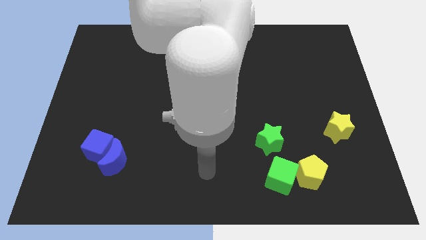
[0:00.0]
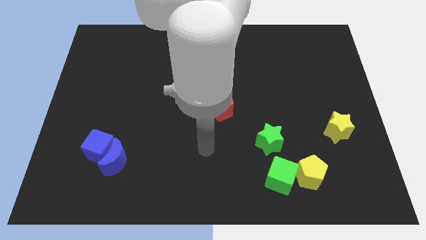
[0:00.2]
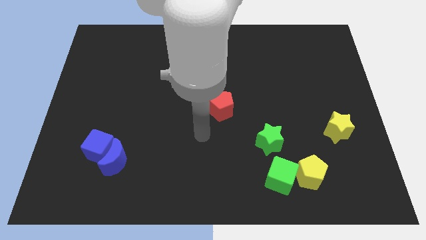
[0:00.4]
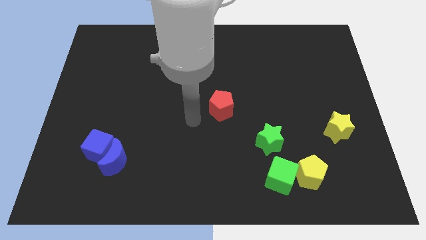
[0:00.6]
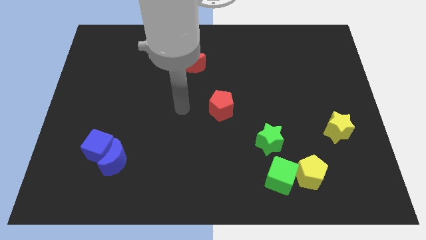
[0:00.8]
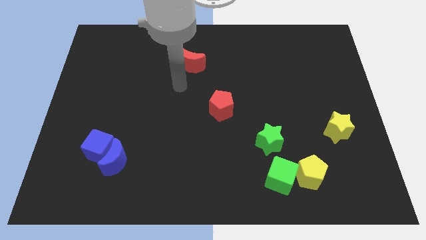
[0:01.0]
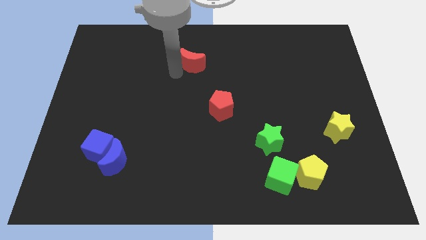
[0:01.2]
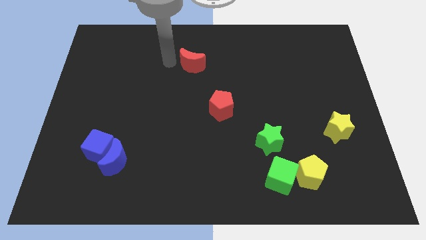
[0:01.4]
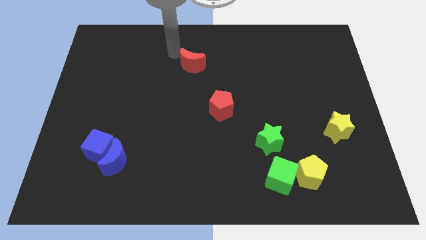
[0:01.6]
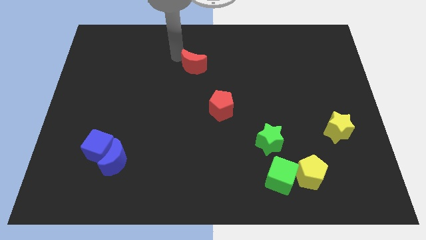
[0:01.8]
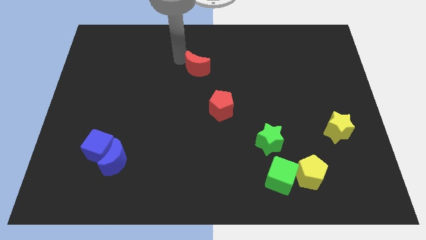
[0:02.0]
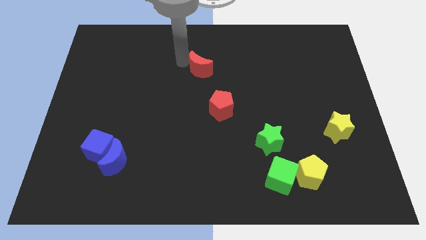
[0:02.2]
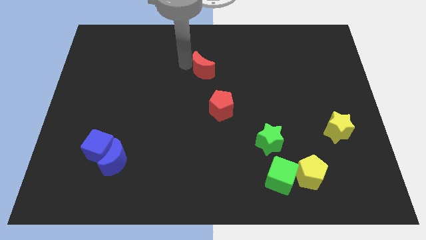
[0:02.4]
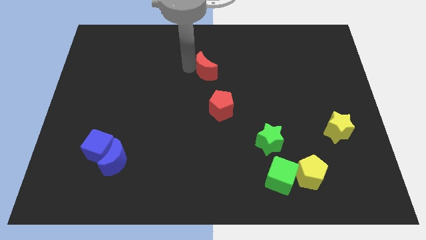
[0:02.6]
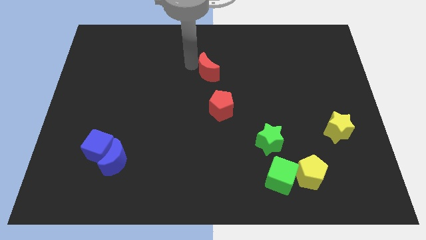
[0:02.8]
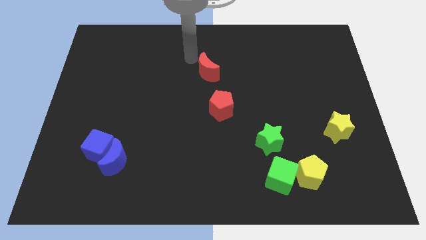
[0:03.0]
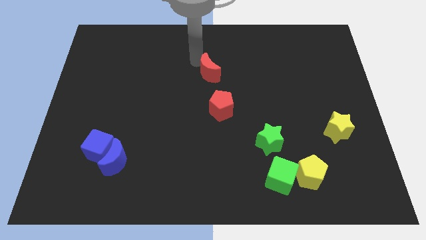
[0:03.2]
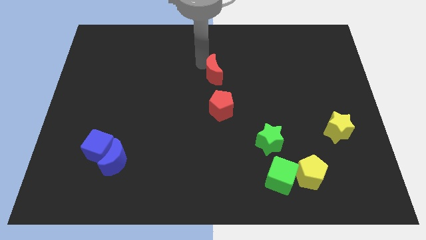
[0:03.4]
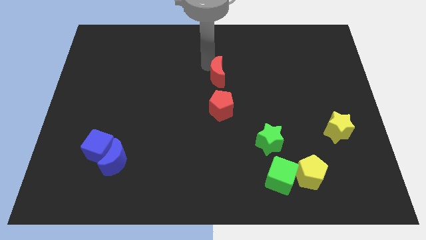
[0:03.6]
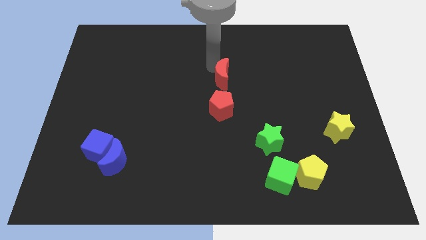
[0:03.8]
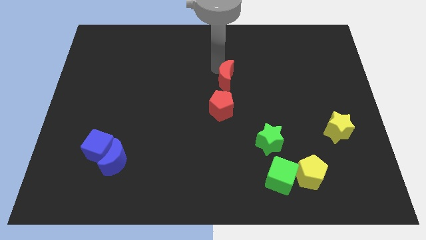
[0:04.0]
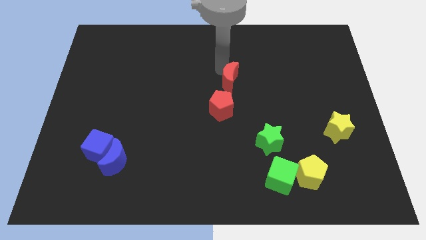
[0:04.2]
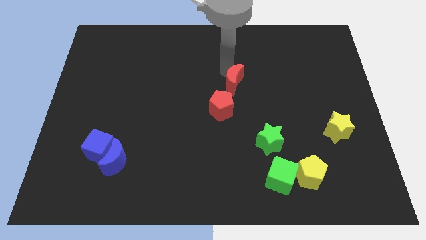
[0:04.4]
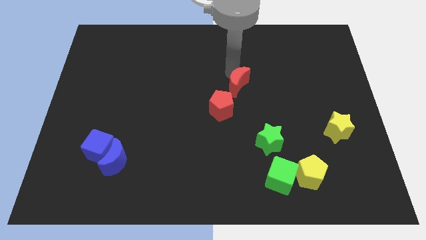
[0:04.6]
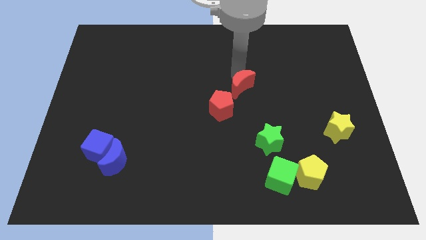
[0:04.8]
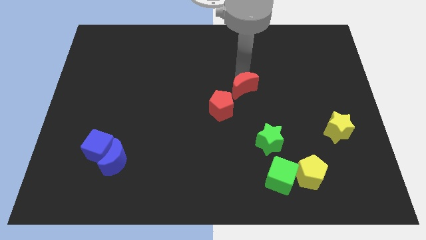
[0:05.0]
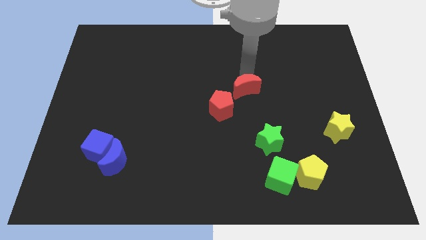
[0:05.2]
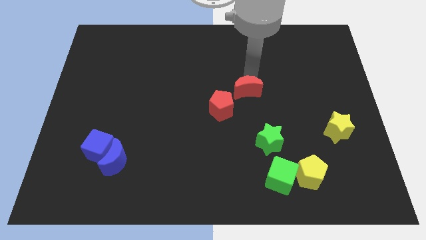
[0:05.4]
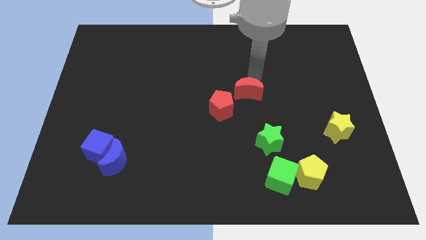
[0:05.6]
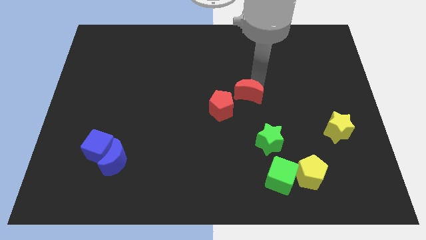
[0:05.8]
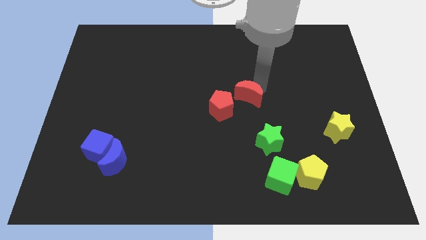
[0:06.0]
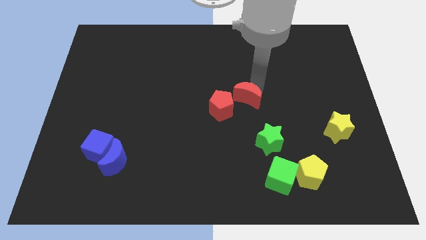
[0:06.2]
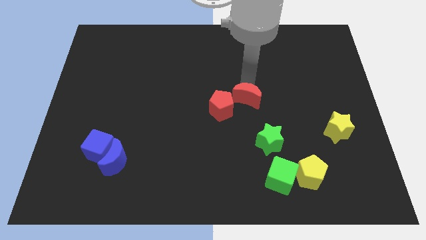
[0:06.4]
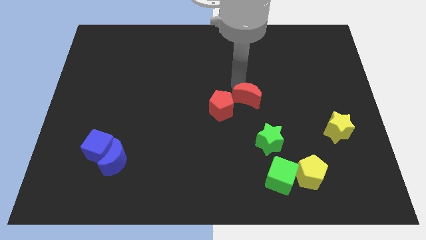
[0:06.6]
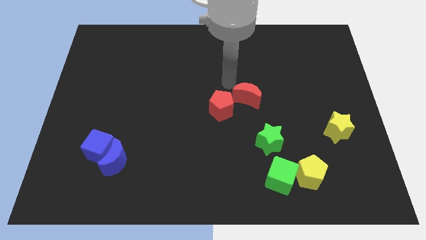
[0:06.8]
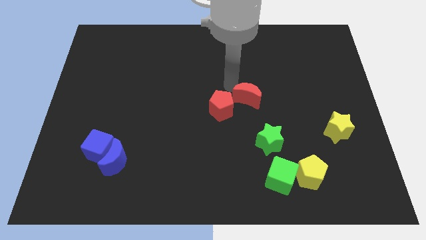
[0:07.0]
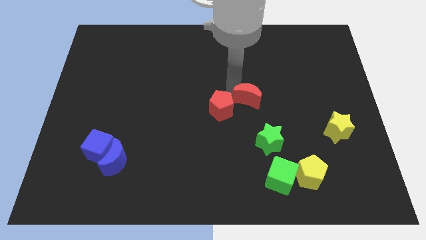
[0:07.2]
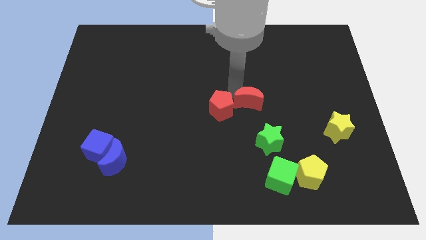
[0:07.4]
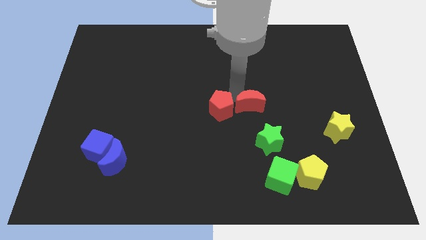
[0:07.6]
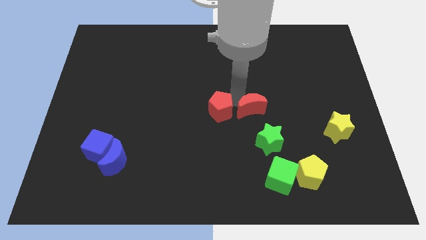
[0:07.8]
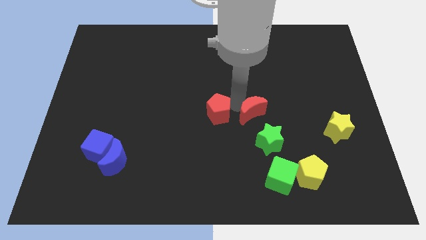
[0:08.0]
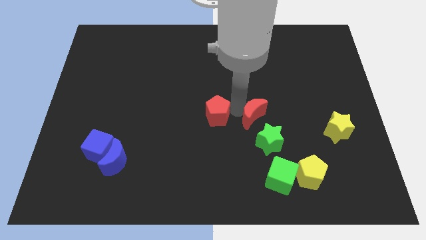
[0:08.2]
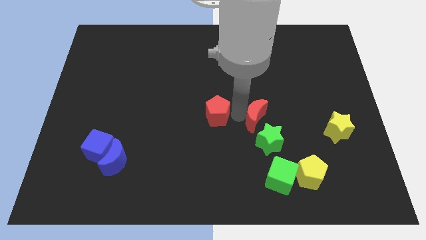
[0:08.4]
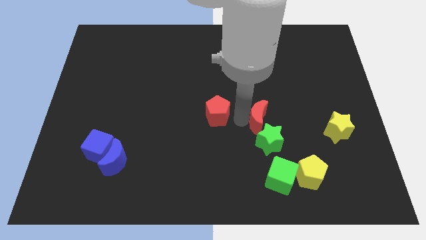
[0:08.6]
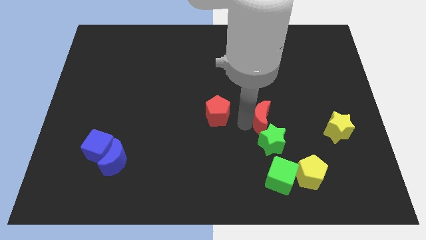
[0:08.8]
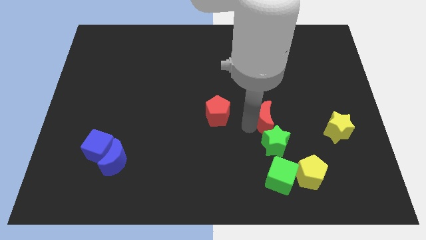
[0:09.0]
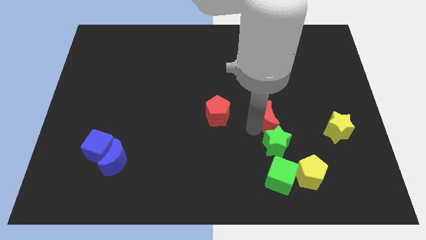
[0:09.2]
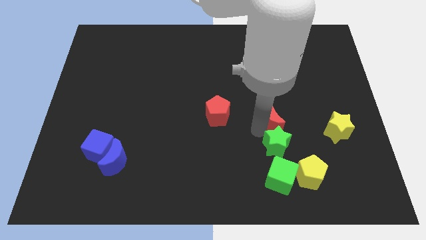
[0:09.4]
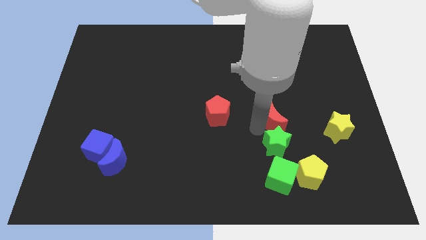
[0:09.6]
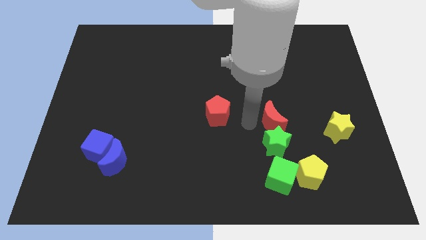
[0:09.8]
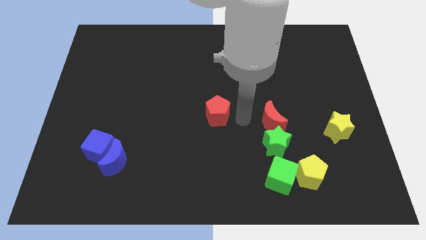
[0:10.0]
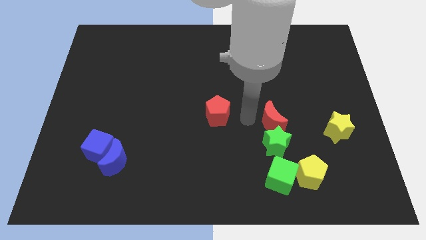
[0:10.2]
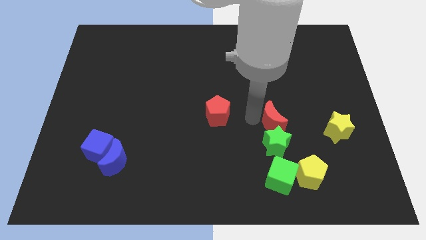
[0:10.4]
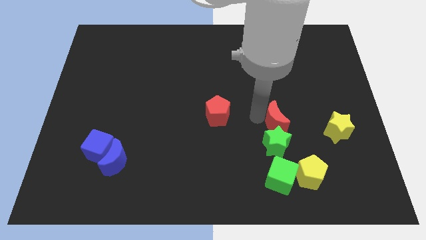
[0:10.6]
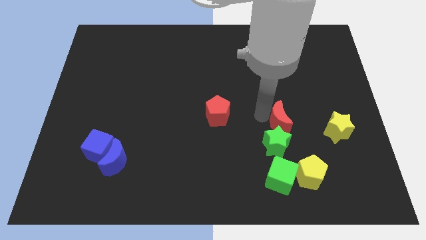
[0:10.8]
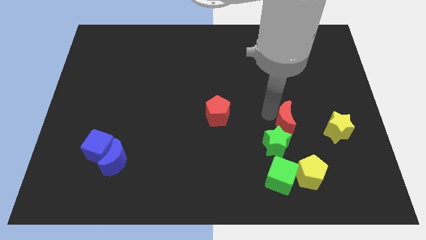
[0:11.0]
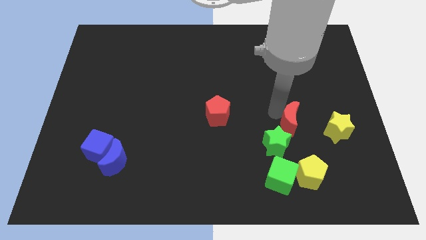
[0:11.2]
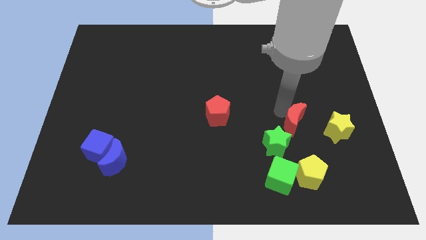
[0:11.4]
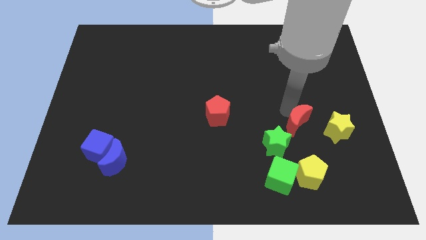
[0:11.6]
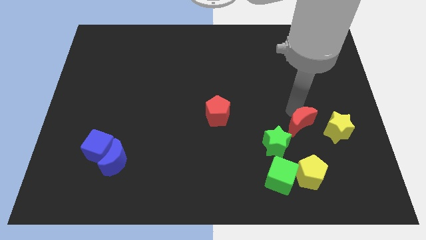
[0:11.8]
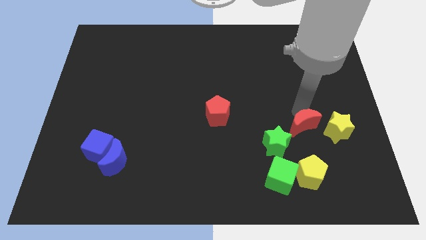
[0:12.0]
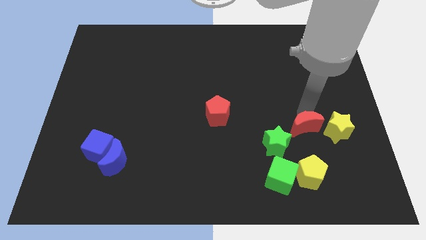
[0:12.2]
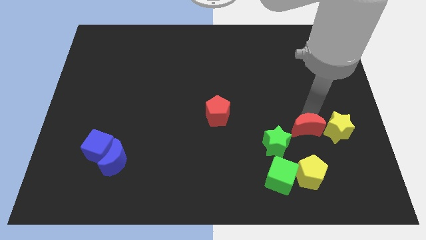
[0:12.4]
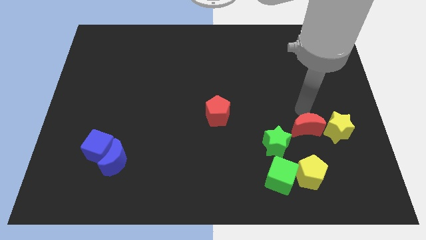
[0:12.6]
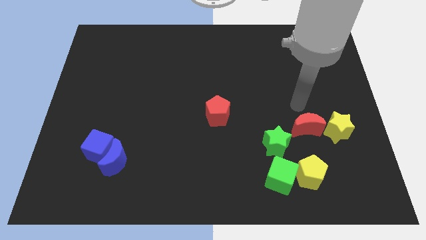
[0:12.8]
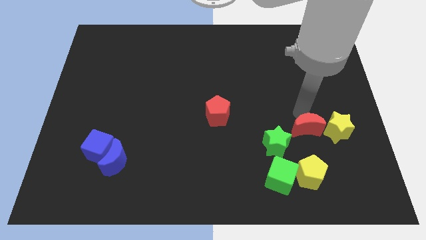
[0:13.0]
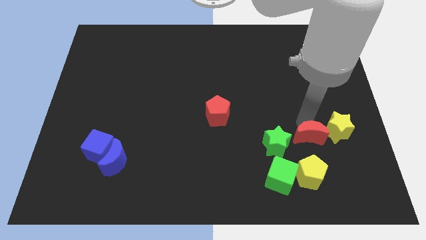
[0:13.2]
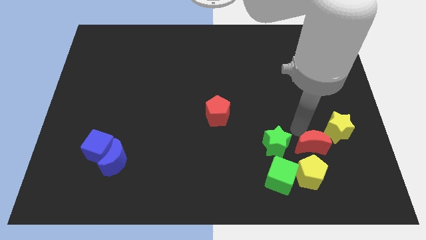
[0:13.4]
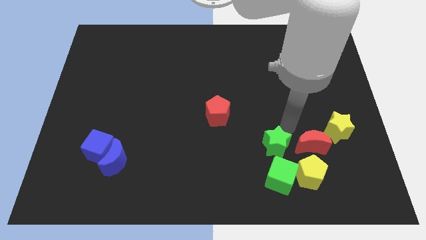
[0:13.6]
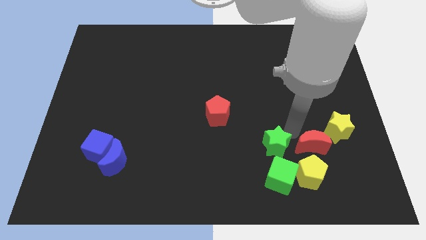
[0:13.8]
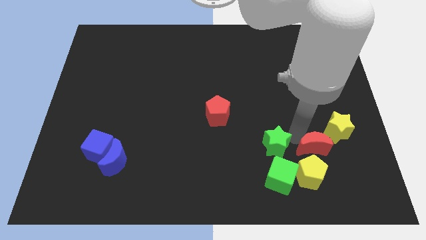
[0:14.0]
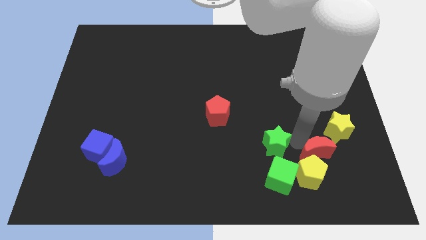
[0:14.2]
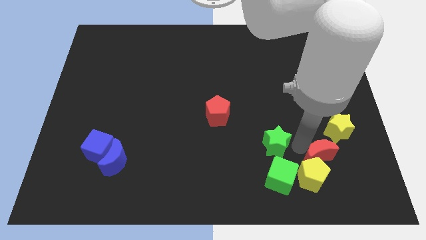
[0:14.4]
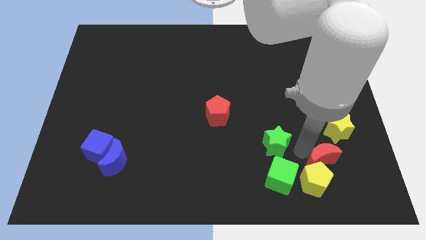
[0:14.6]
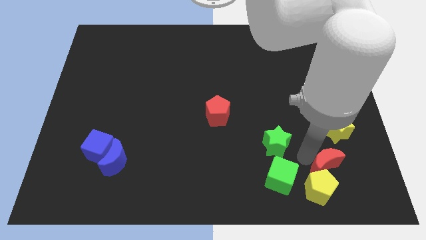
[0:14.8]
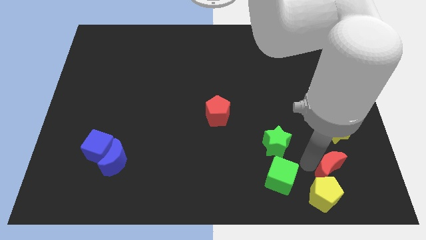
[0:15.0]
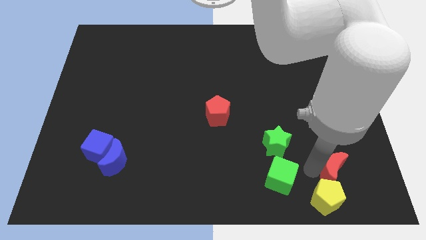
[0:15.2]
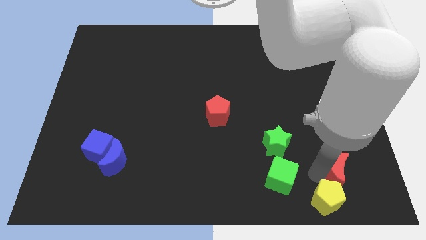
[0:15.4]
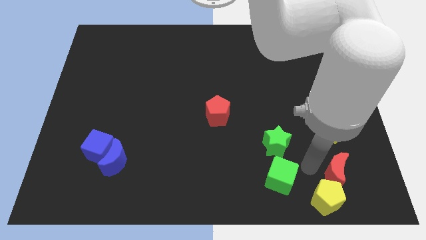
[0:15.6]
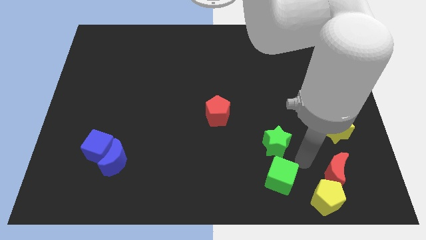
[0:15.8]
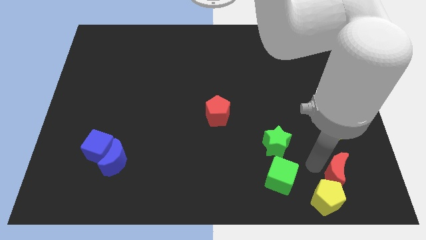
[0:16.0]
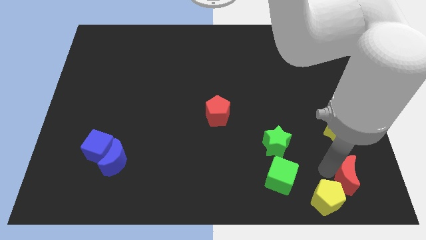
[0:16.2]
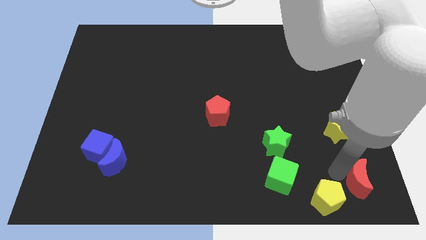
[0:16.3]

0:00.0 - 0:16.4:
push the red moon to the lower right corner
